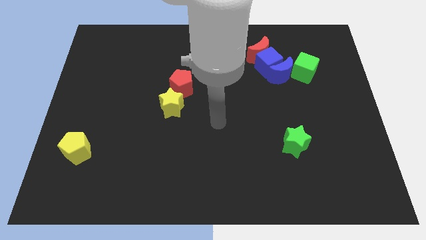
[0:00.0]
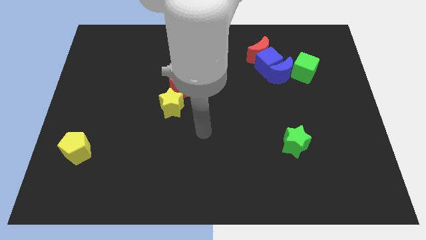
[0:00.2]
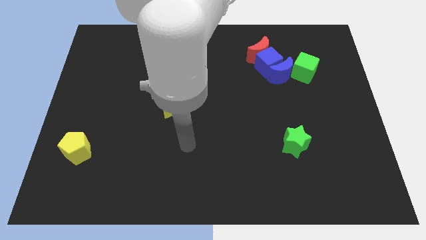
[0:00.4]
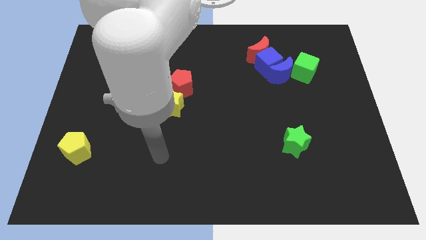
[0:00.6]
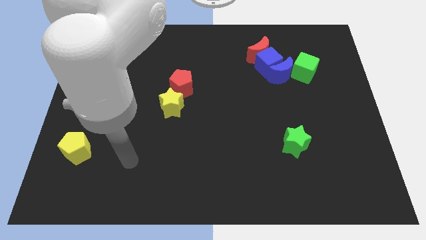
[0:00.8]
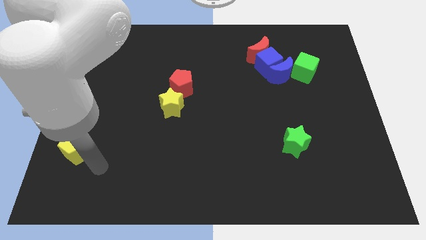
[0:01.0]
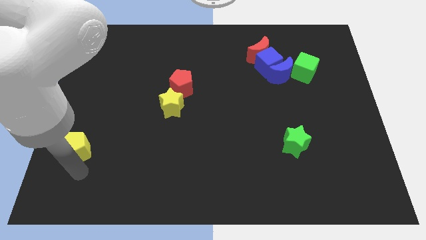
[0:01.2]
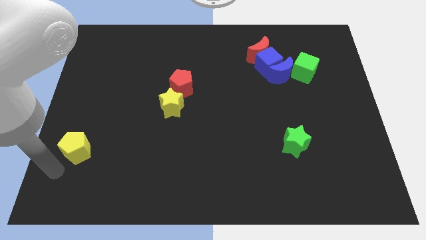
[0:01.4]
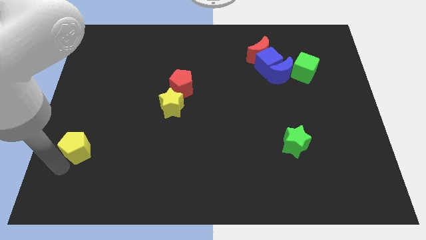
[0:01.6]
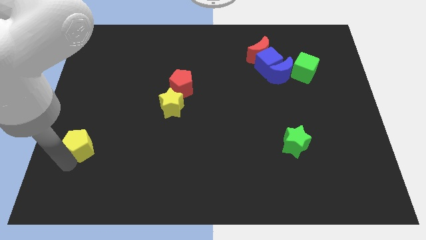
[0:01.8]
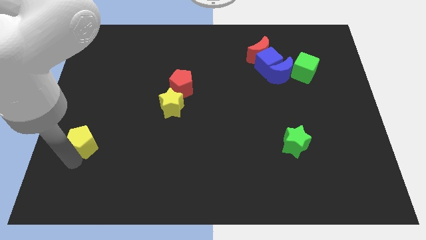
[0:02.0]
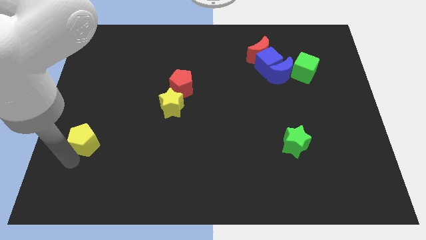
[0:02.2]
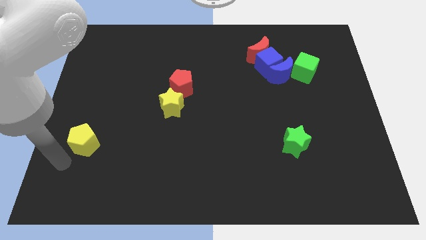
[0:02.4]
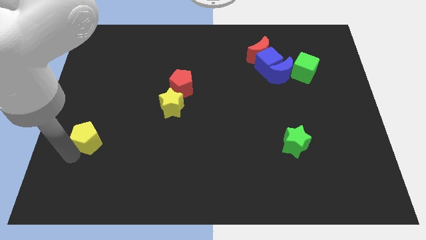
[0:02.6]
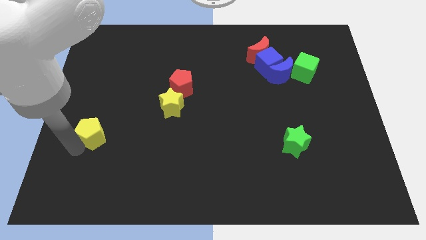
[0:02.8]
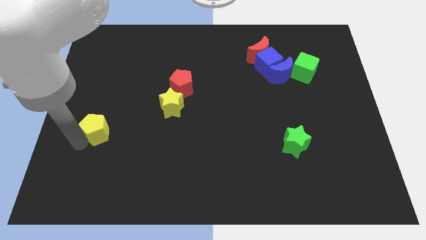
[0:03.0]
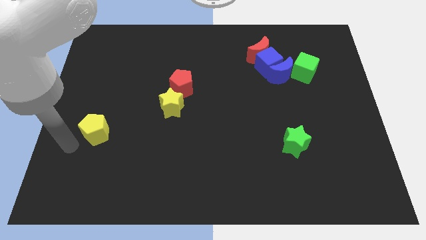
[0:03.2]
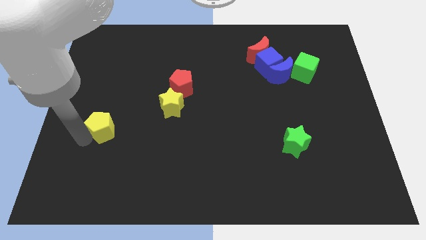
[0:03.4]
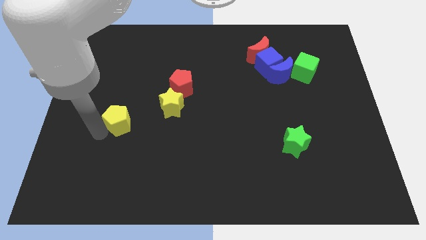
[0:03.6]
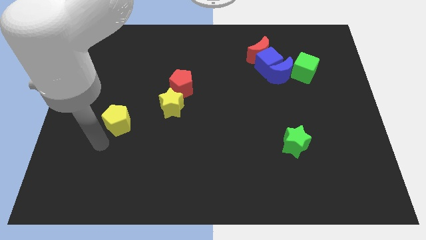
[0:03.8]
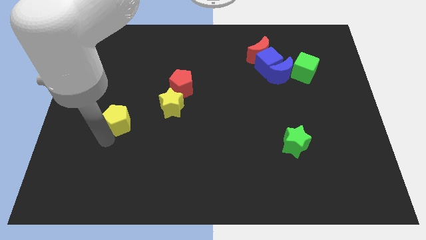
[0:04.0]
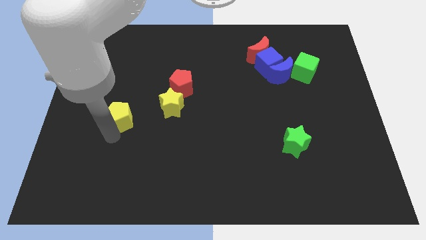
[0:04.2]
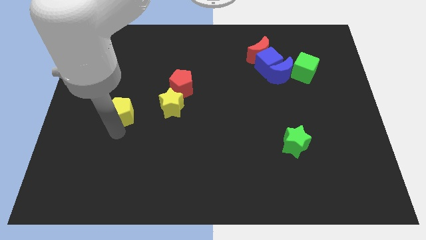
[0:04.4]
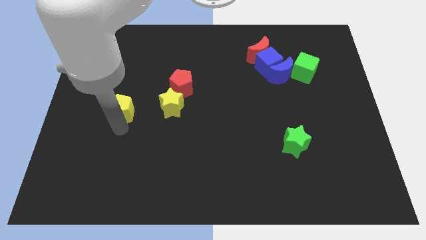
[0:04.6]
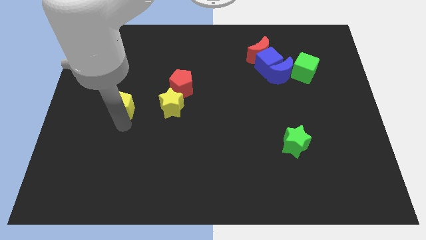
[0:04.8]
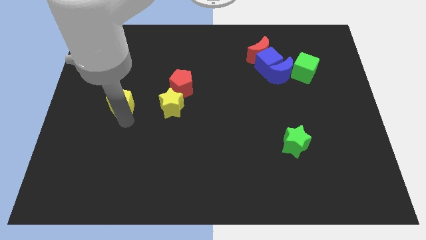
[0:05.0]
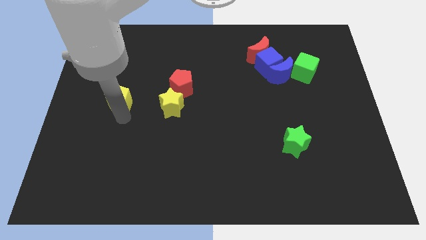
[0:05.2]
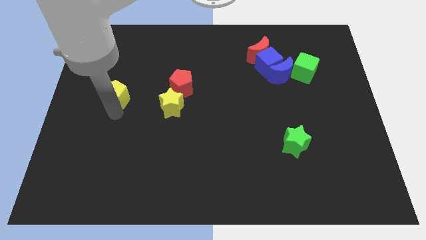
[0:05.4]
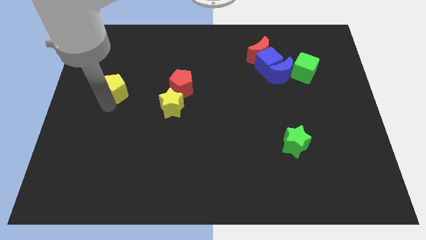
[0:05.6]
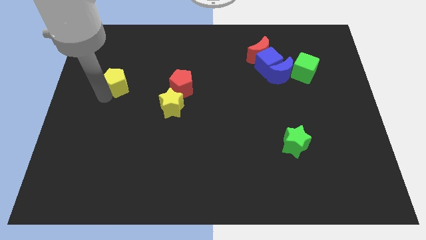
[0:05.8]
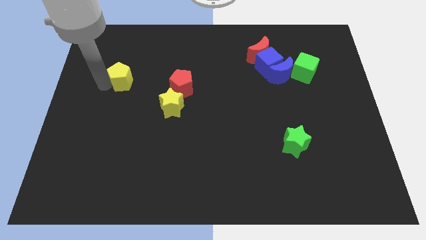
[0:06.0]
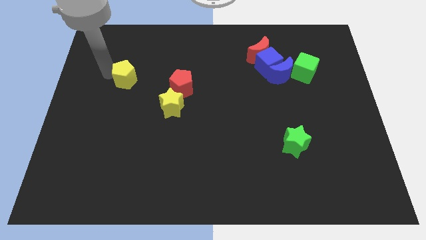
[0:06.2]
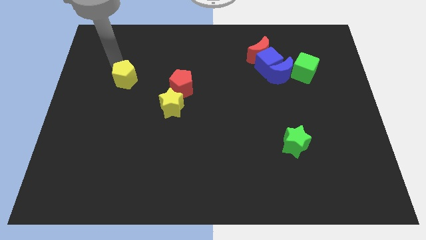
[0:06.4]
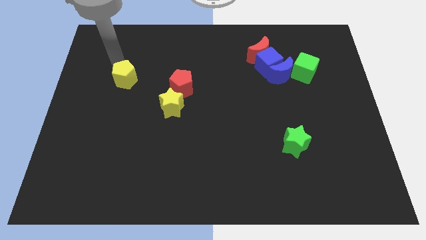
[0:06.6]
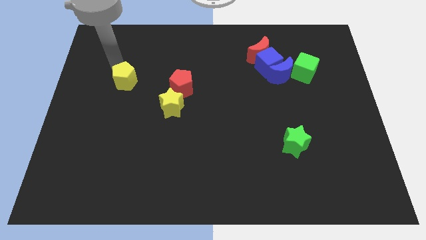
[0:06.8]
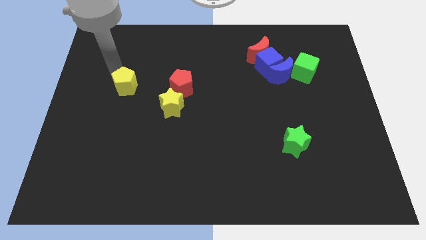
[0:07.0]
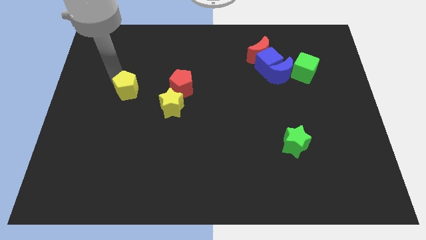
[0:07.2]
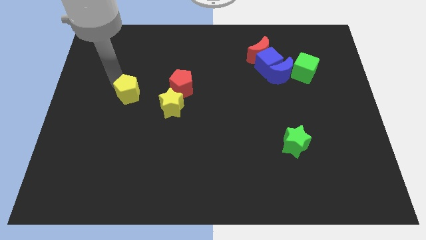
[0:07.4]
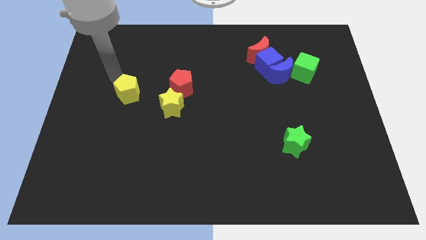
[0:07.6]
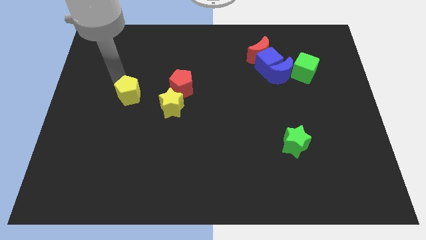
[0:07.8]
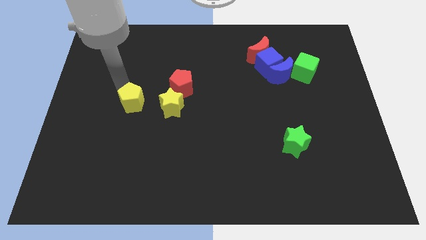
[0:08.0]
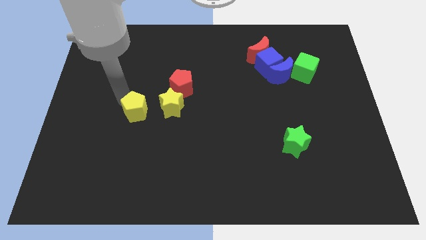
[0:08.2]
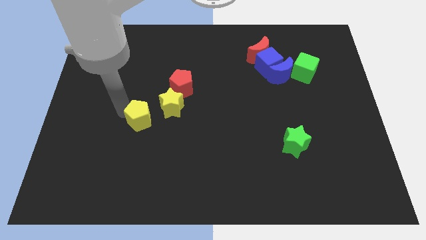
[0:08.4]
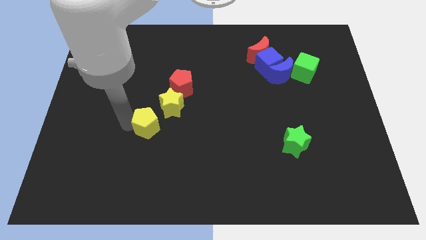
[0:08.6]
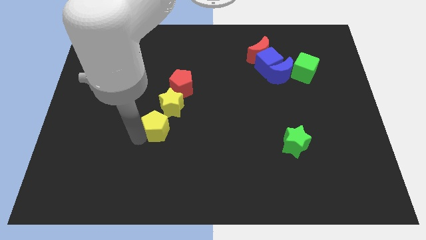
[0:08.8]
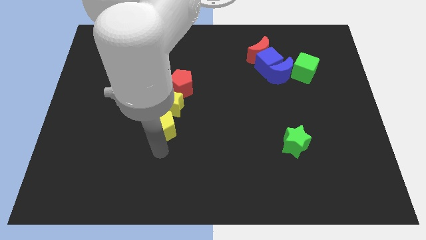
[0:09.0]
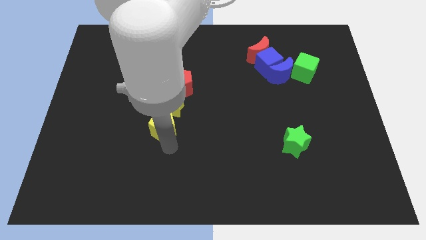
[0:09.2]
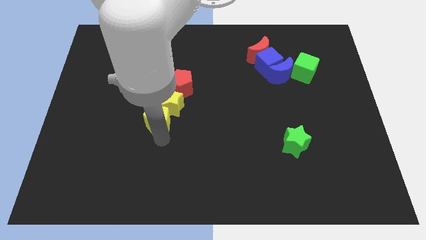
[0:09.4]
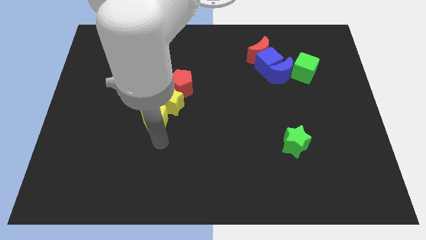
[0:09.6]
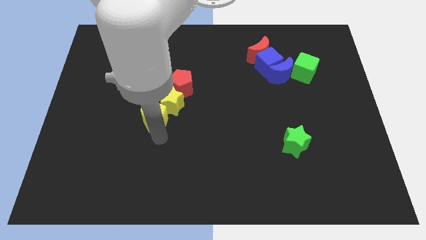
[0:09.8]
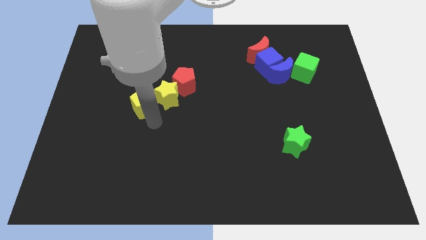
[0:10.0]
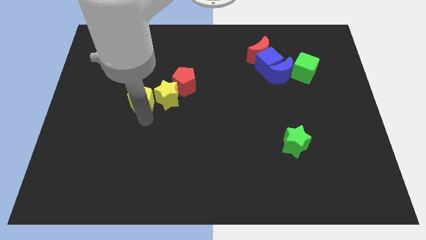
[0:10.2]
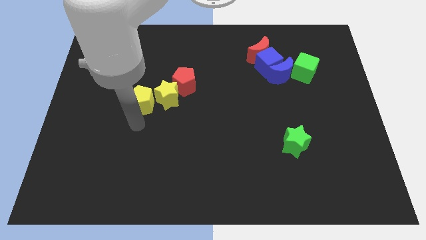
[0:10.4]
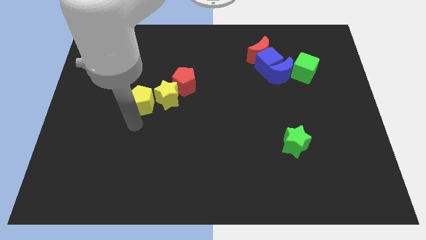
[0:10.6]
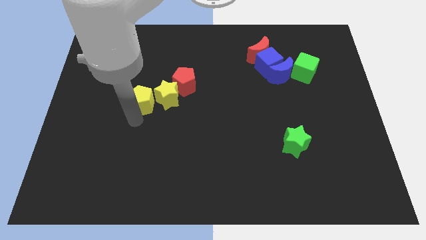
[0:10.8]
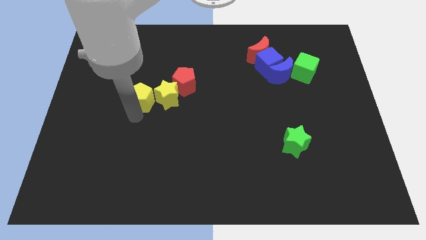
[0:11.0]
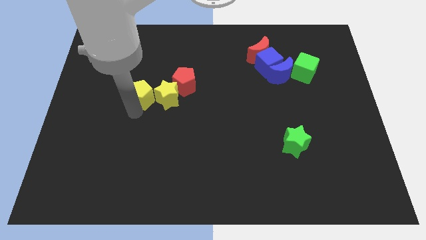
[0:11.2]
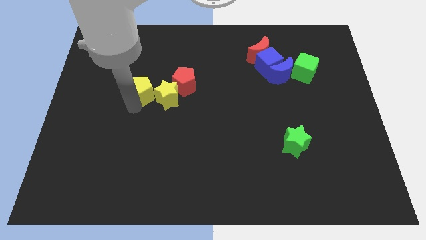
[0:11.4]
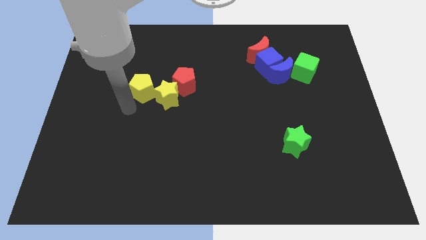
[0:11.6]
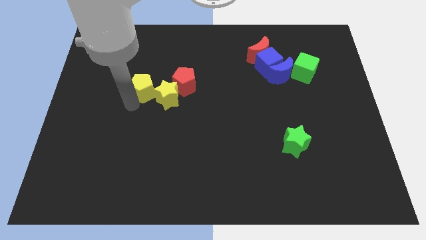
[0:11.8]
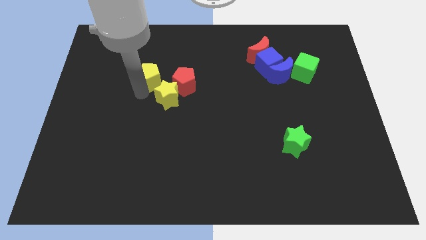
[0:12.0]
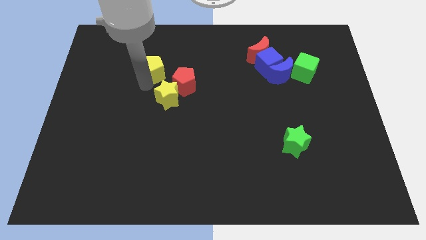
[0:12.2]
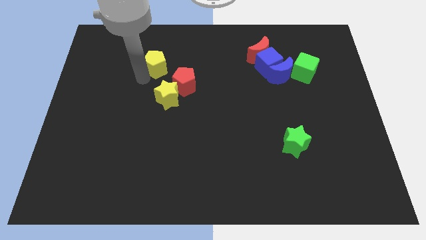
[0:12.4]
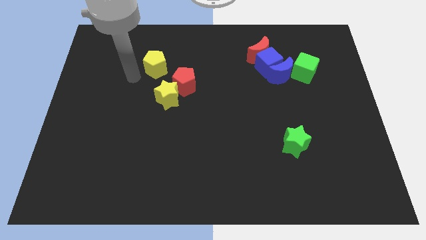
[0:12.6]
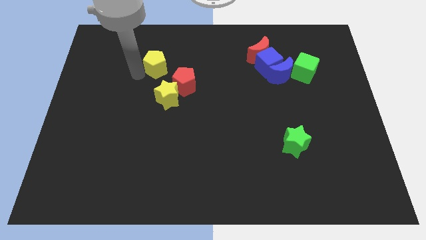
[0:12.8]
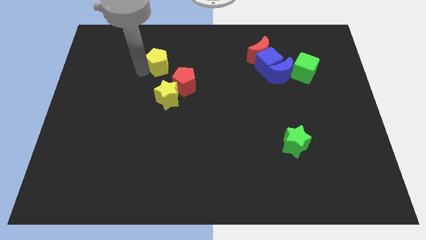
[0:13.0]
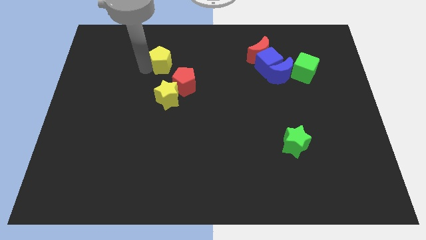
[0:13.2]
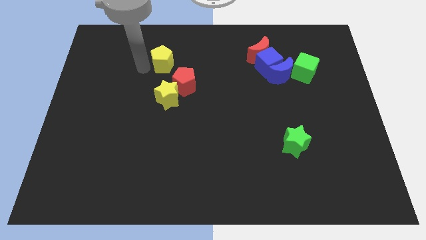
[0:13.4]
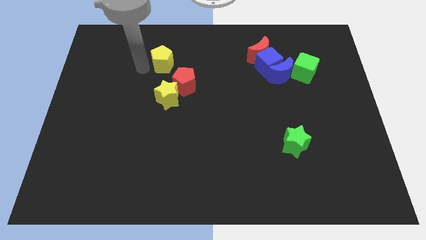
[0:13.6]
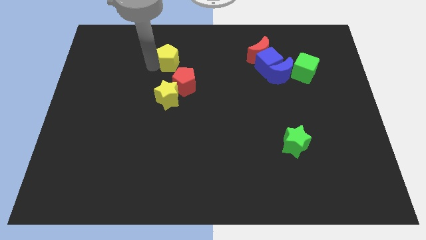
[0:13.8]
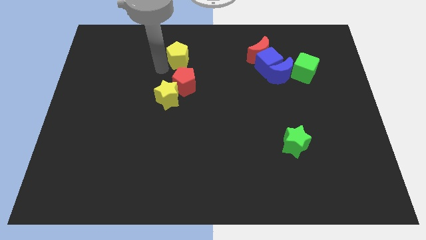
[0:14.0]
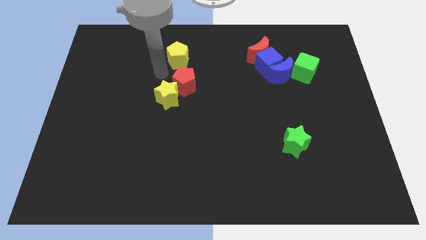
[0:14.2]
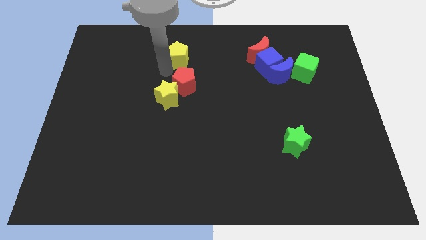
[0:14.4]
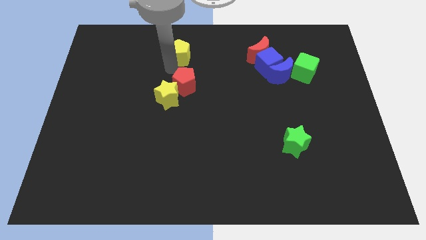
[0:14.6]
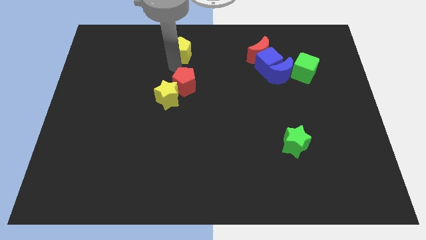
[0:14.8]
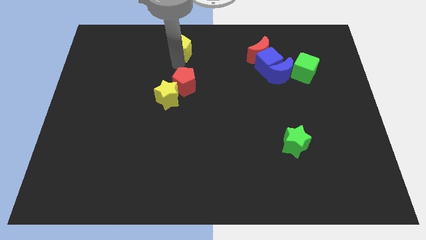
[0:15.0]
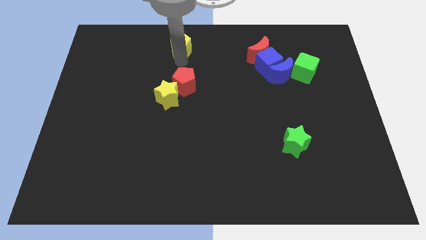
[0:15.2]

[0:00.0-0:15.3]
push the yellow pentagon to the towards your base
